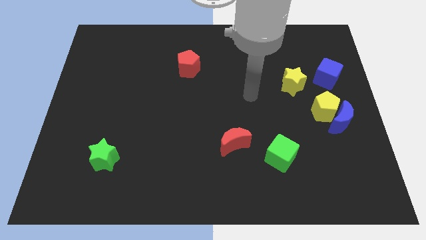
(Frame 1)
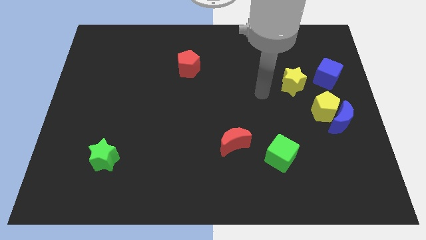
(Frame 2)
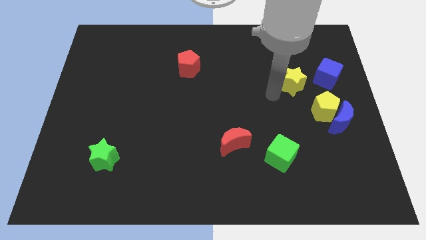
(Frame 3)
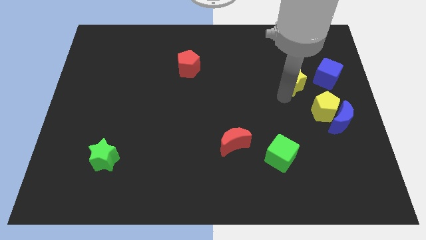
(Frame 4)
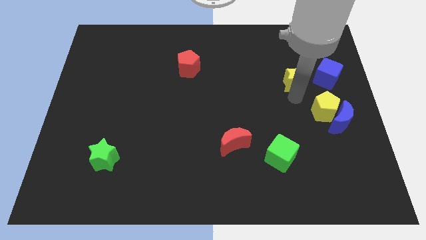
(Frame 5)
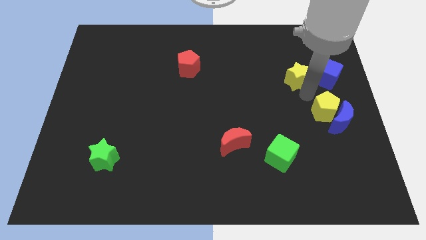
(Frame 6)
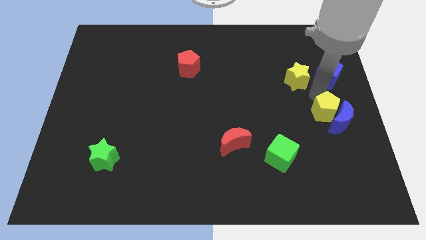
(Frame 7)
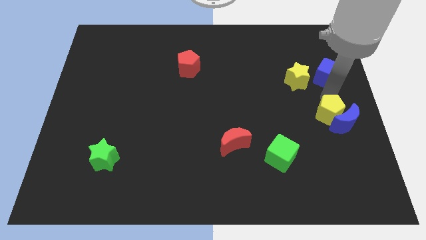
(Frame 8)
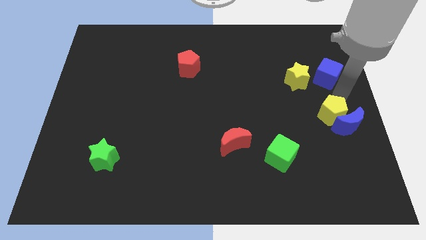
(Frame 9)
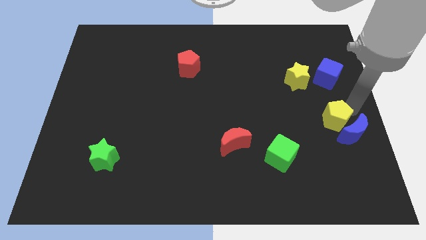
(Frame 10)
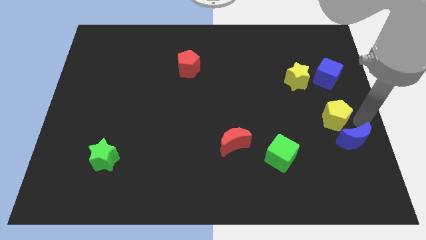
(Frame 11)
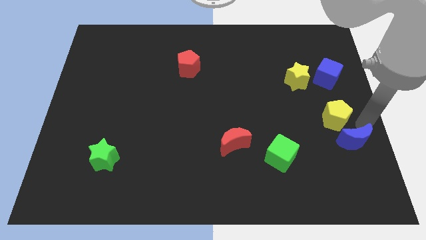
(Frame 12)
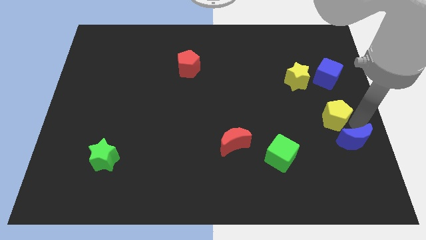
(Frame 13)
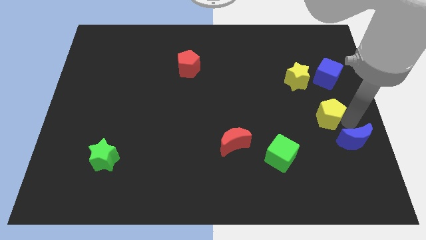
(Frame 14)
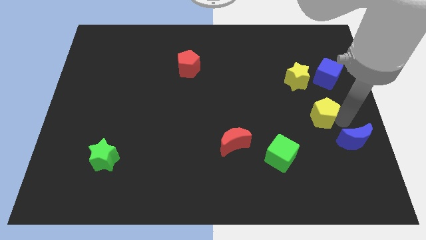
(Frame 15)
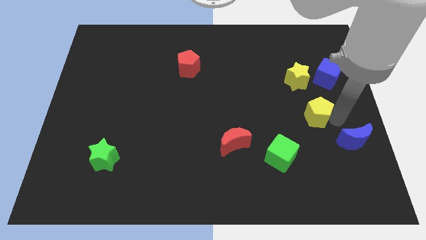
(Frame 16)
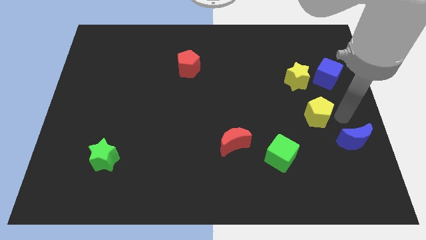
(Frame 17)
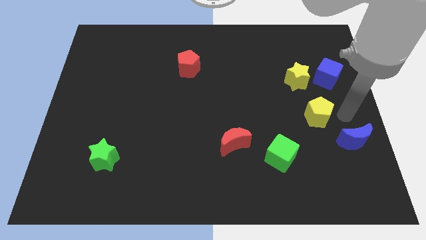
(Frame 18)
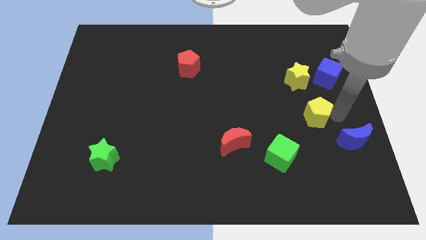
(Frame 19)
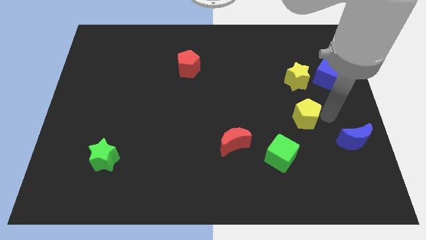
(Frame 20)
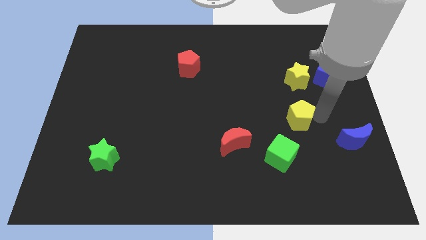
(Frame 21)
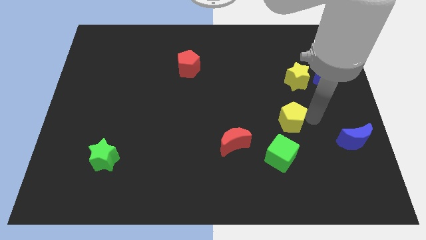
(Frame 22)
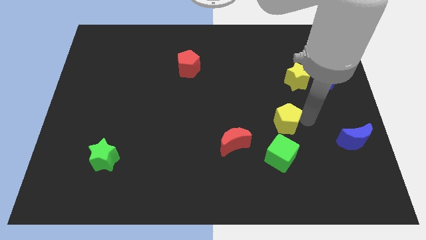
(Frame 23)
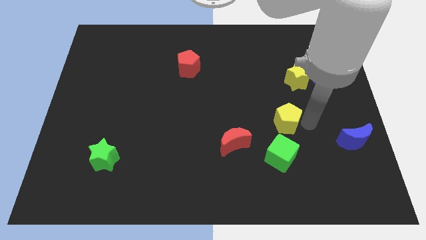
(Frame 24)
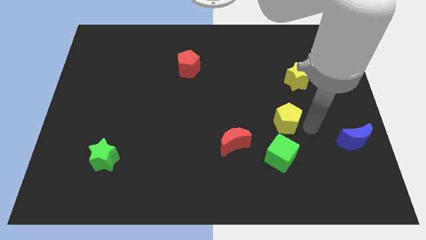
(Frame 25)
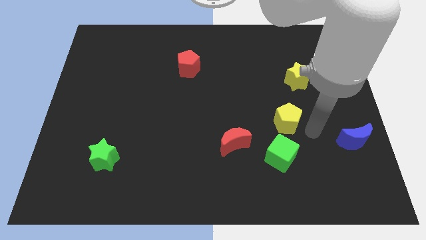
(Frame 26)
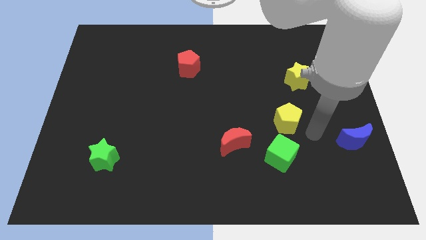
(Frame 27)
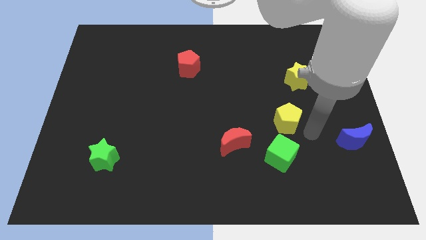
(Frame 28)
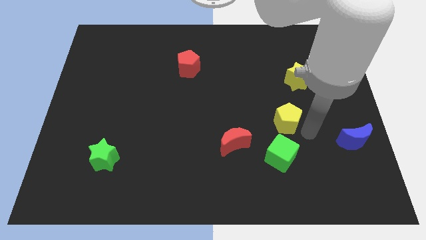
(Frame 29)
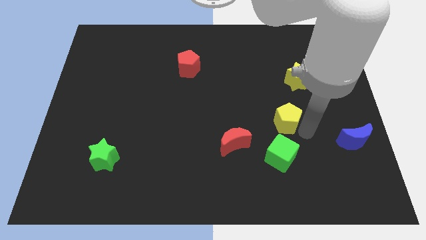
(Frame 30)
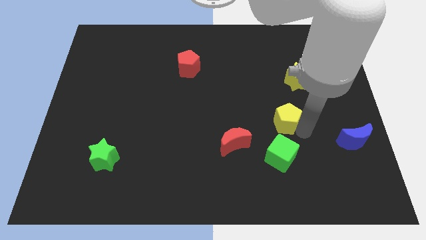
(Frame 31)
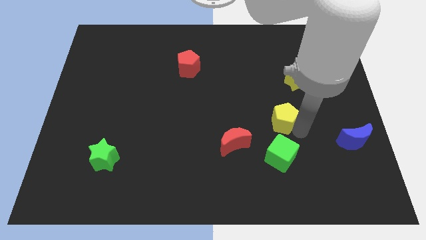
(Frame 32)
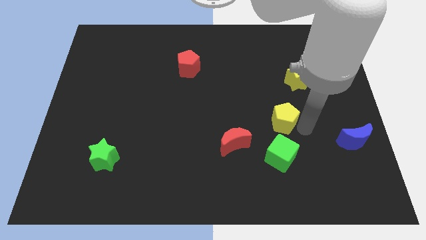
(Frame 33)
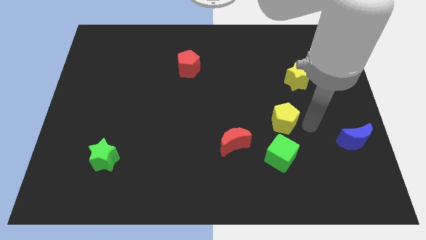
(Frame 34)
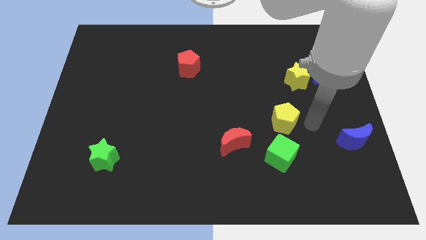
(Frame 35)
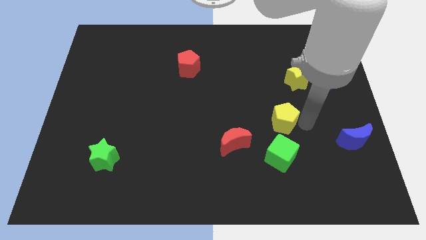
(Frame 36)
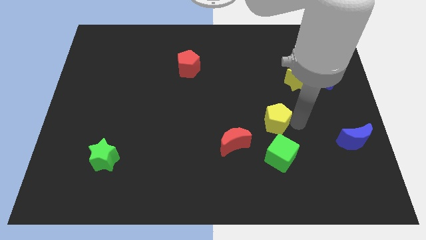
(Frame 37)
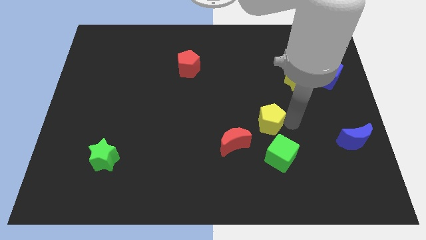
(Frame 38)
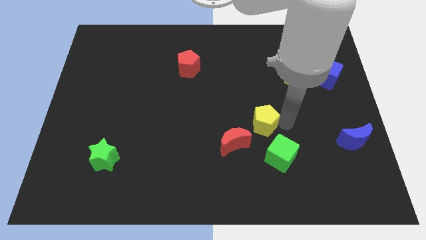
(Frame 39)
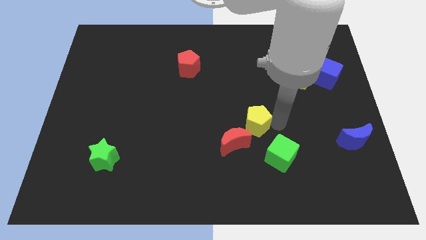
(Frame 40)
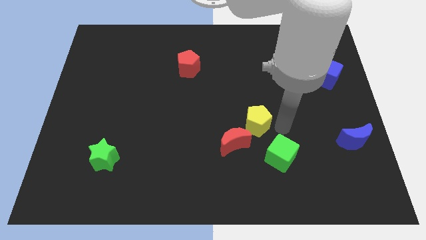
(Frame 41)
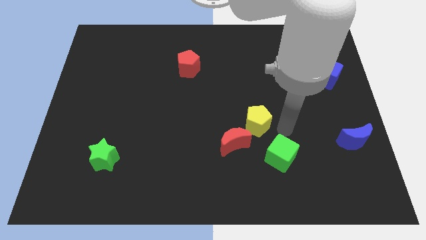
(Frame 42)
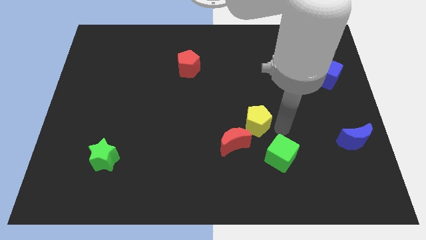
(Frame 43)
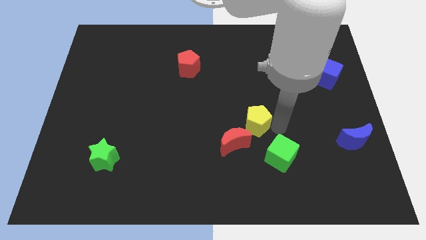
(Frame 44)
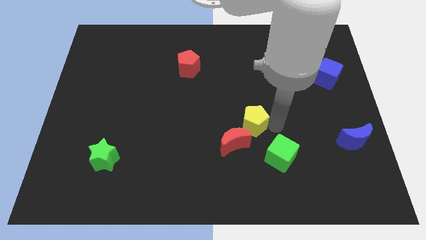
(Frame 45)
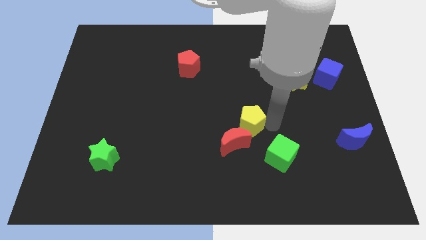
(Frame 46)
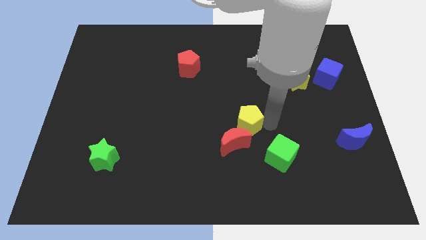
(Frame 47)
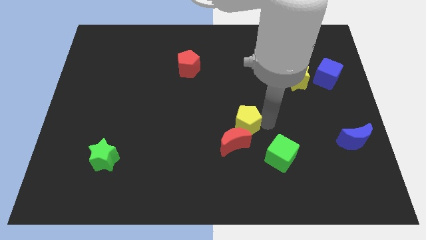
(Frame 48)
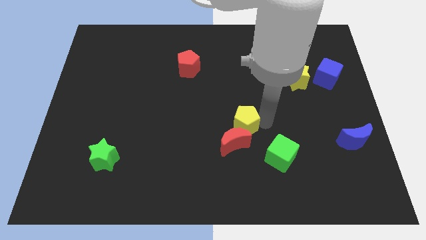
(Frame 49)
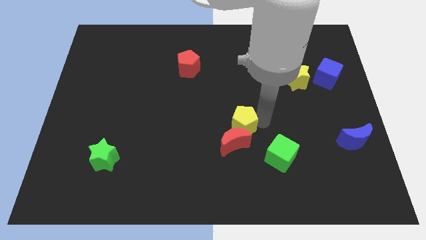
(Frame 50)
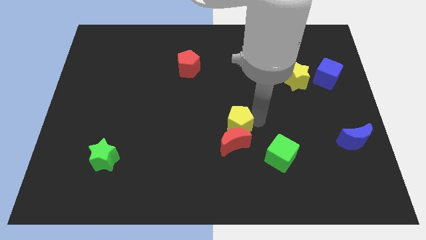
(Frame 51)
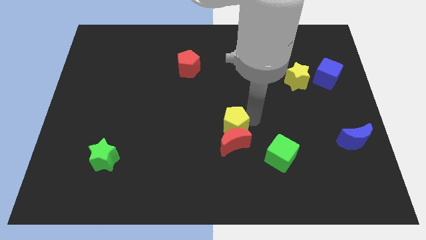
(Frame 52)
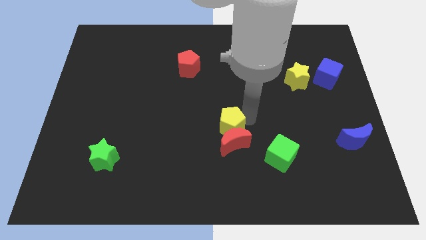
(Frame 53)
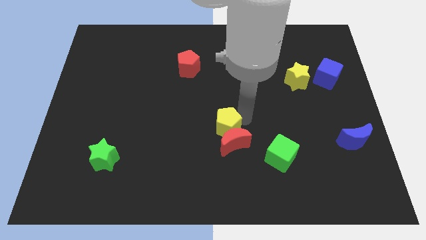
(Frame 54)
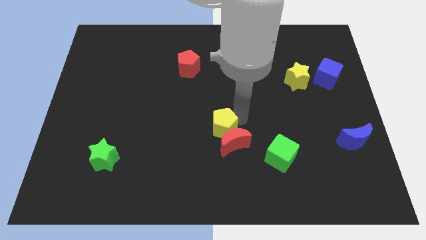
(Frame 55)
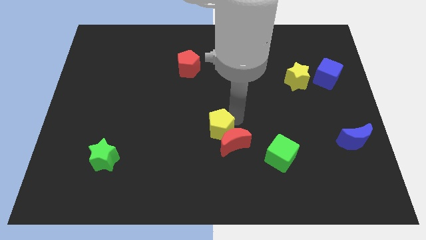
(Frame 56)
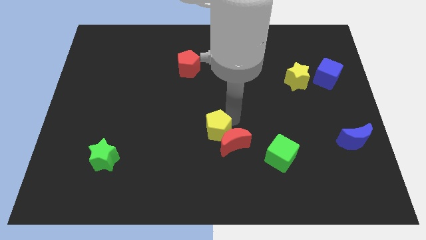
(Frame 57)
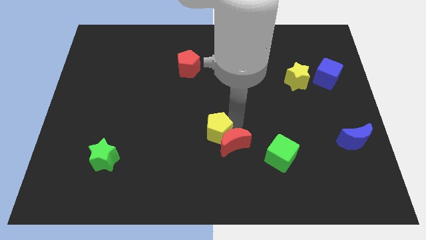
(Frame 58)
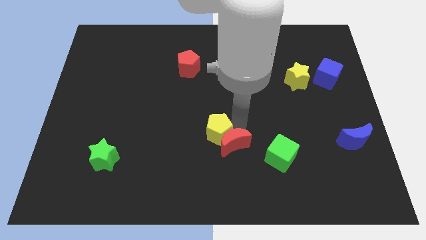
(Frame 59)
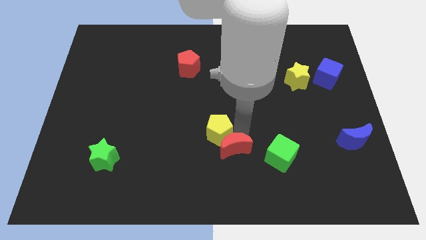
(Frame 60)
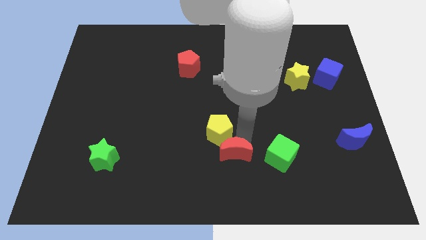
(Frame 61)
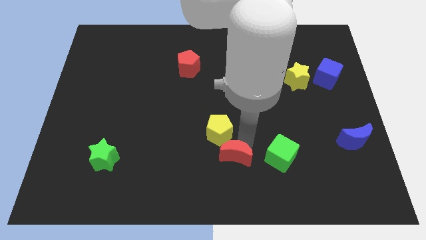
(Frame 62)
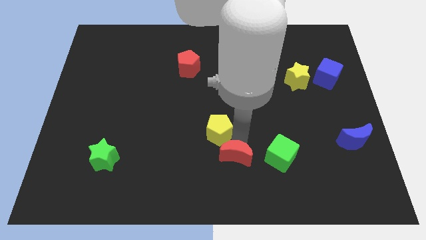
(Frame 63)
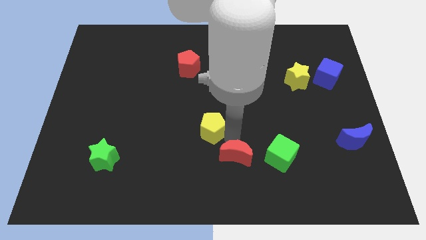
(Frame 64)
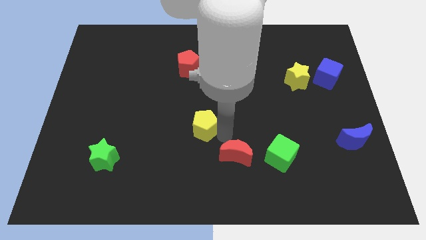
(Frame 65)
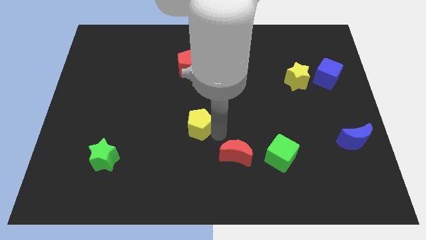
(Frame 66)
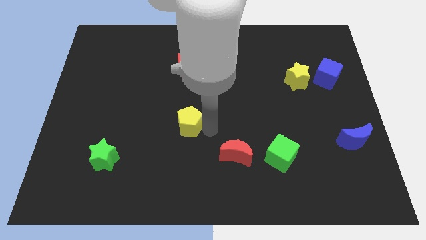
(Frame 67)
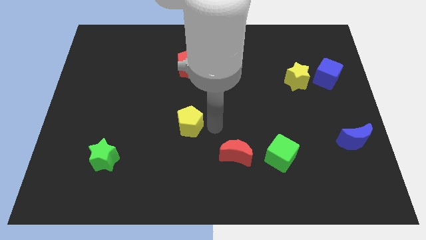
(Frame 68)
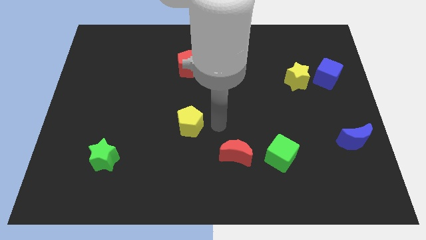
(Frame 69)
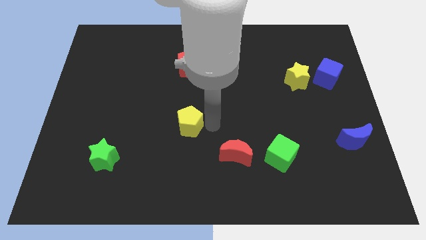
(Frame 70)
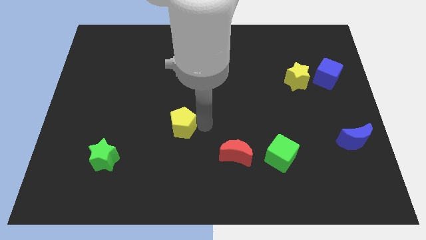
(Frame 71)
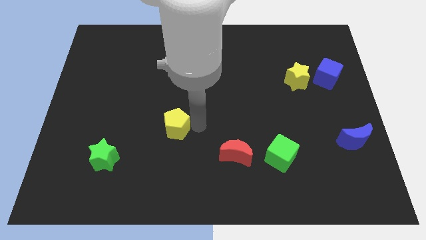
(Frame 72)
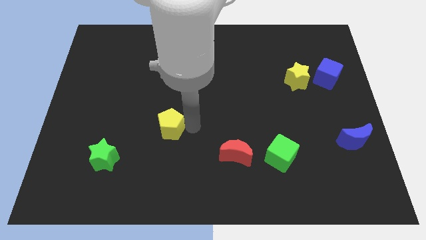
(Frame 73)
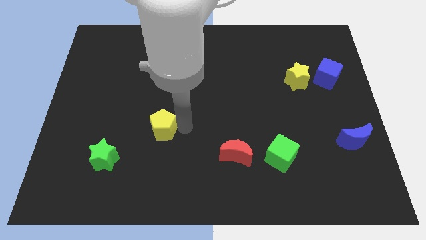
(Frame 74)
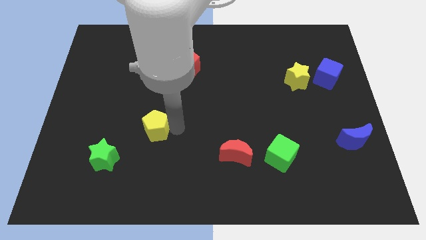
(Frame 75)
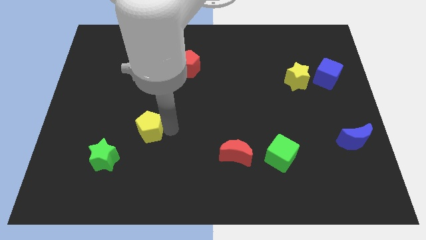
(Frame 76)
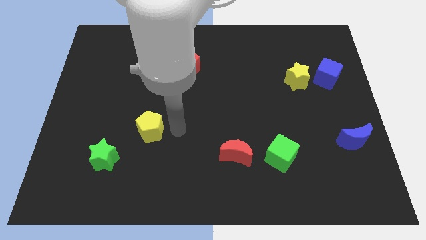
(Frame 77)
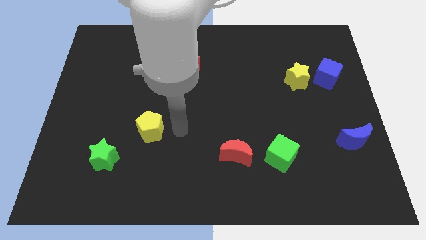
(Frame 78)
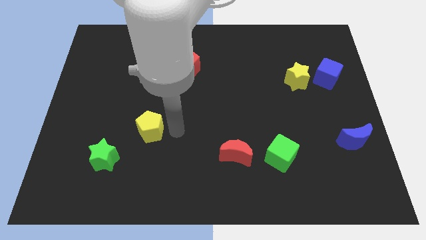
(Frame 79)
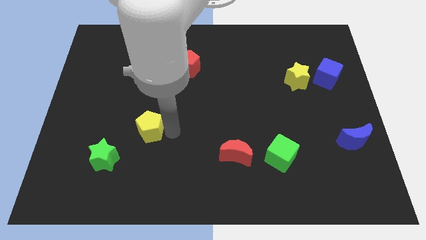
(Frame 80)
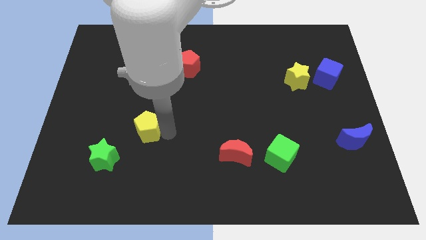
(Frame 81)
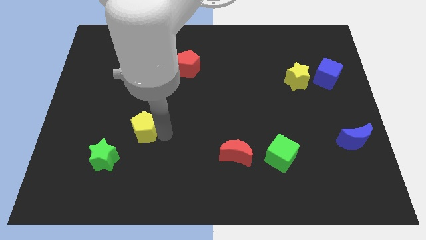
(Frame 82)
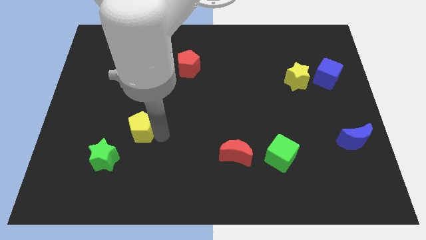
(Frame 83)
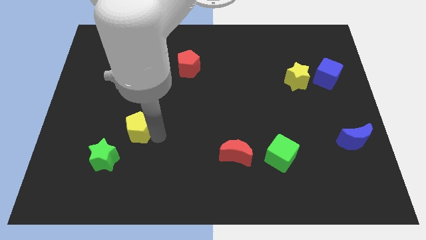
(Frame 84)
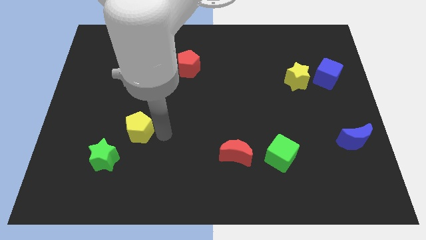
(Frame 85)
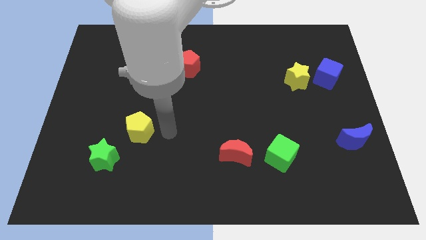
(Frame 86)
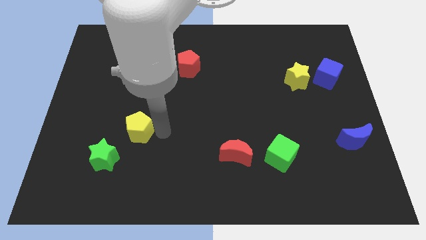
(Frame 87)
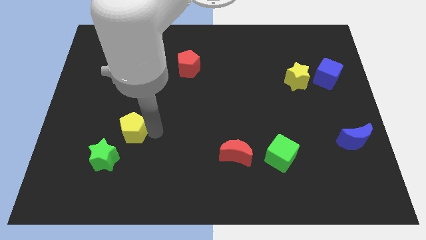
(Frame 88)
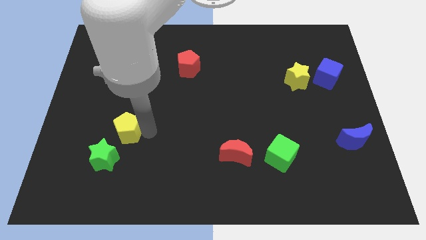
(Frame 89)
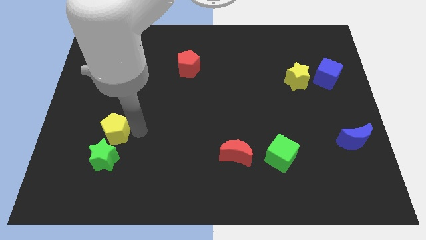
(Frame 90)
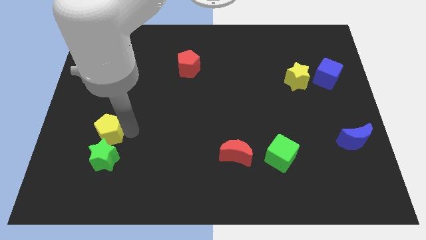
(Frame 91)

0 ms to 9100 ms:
move the yellow pentagon to the top left side of the green star
